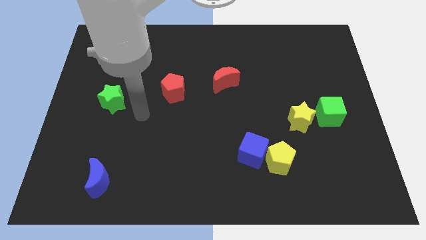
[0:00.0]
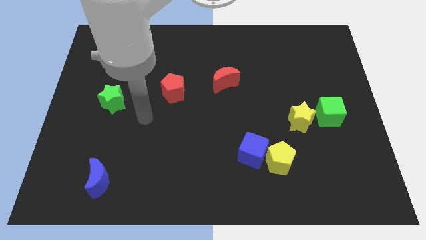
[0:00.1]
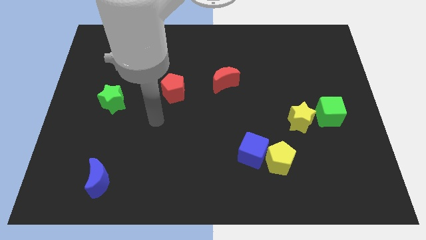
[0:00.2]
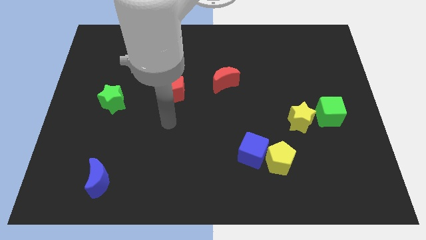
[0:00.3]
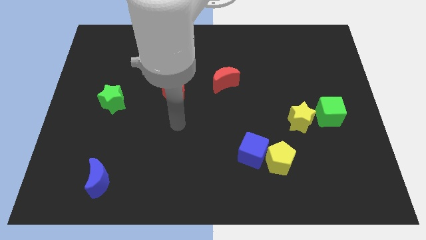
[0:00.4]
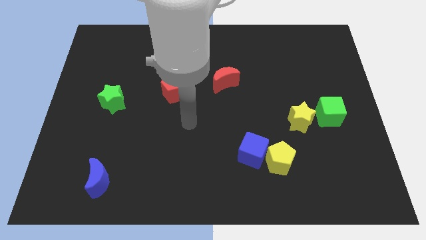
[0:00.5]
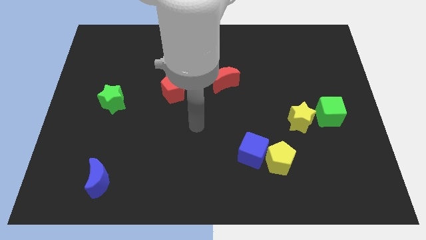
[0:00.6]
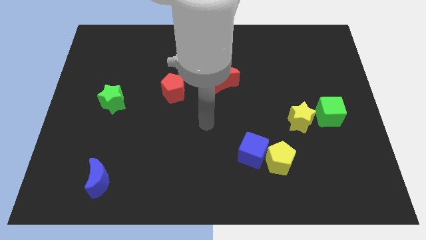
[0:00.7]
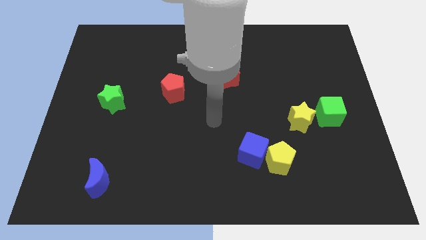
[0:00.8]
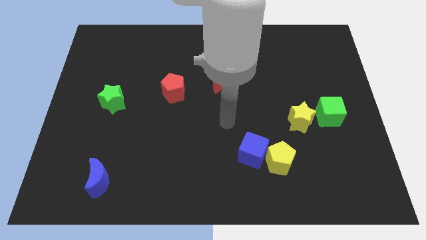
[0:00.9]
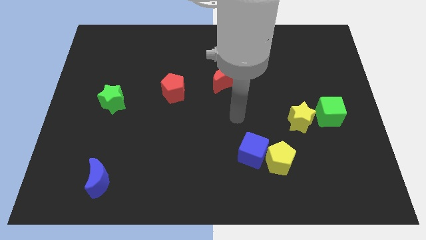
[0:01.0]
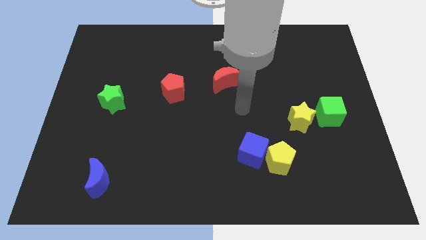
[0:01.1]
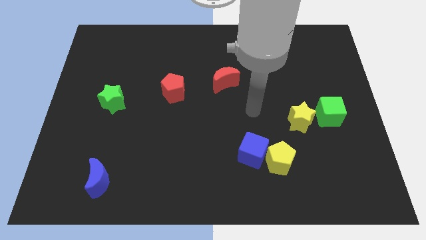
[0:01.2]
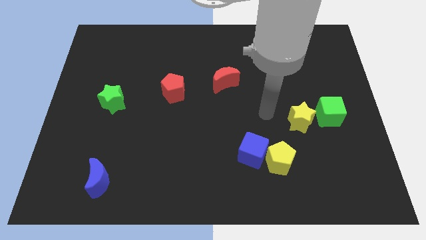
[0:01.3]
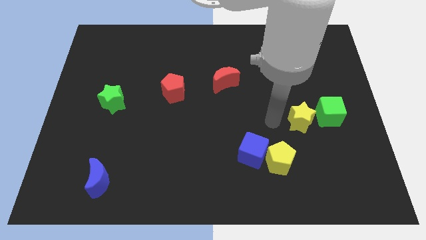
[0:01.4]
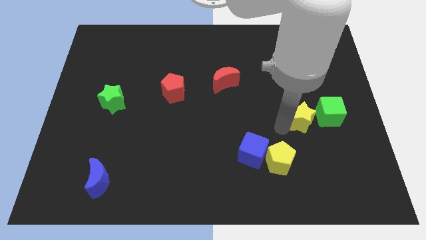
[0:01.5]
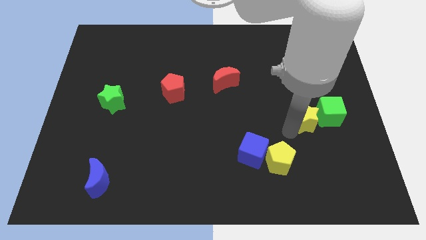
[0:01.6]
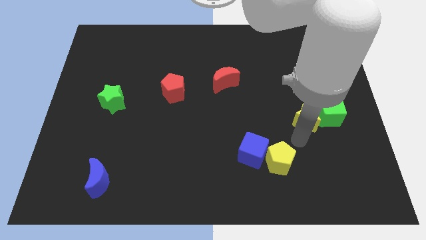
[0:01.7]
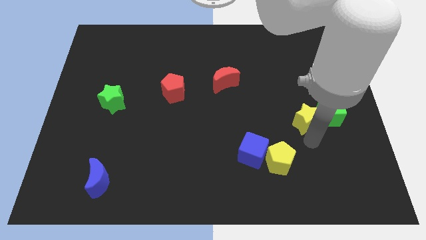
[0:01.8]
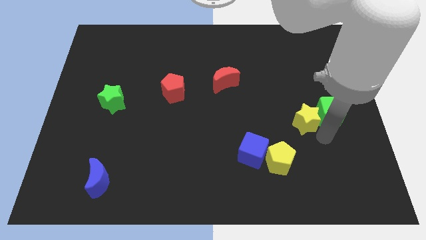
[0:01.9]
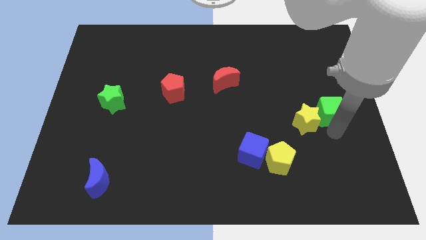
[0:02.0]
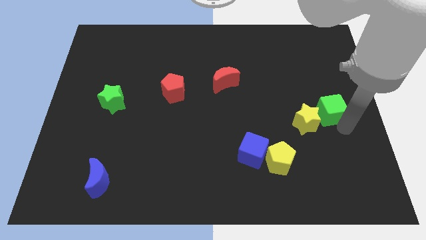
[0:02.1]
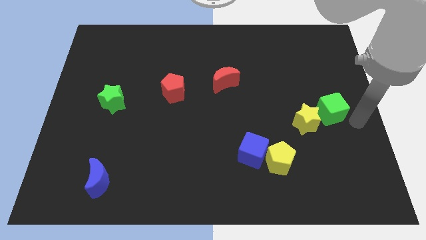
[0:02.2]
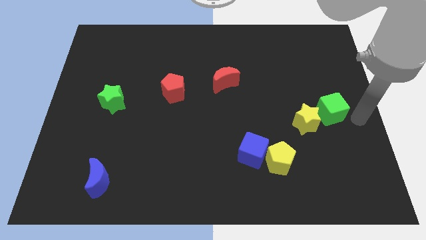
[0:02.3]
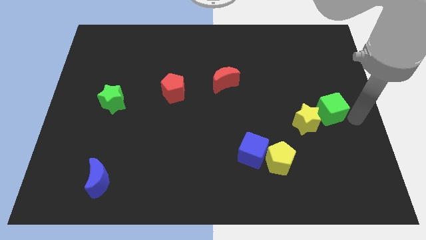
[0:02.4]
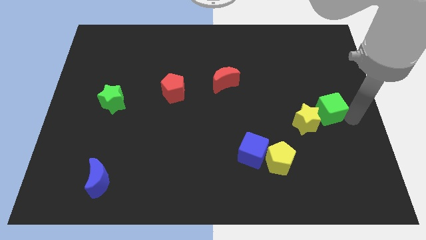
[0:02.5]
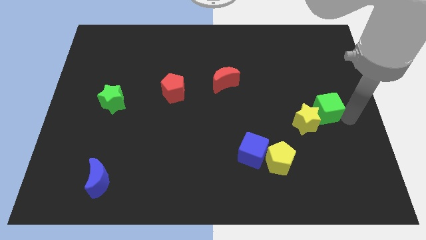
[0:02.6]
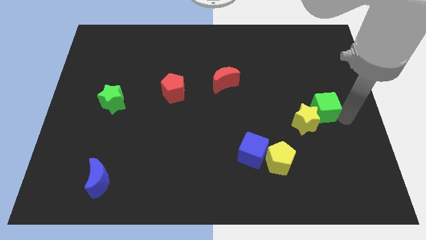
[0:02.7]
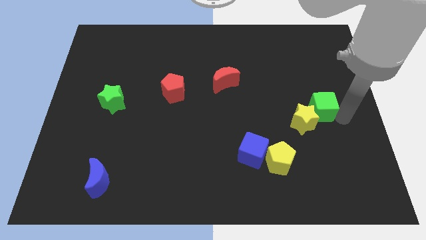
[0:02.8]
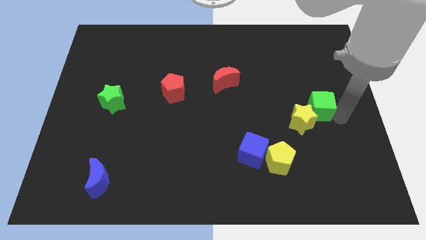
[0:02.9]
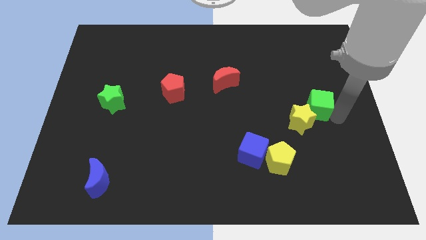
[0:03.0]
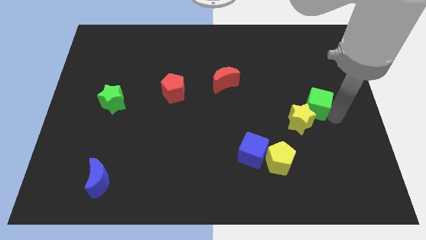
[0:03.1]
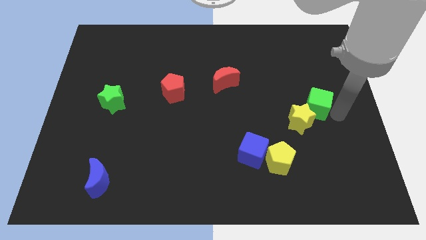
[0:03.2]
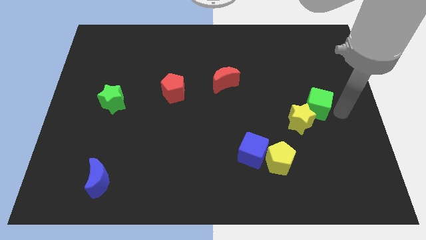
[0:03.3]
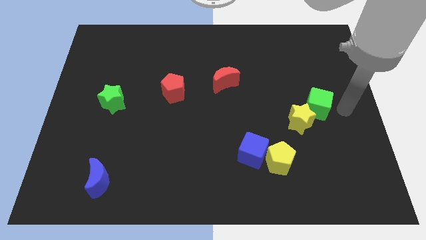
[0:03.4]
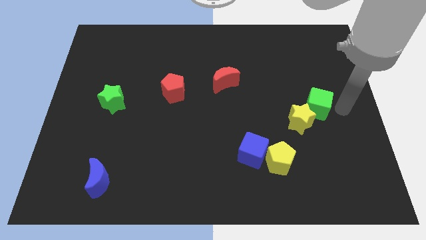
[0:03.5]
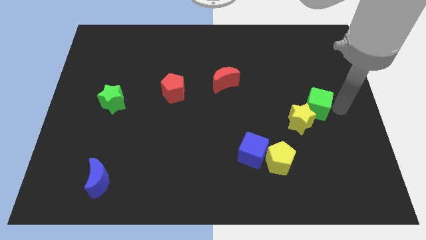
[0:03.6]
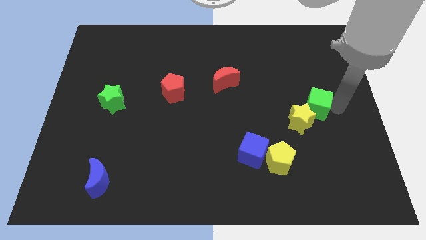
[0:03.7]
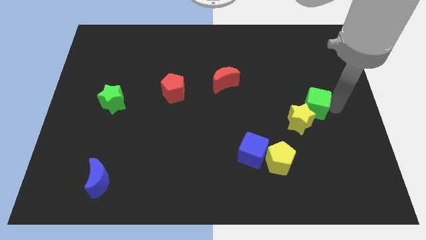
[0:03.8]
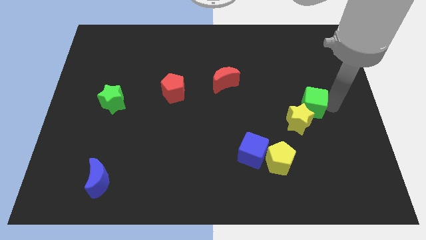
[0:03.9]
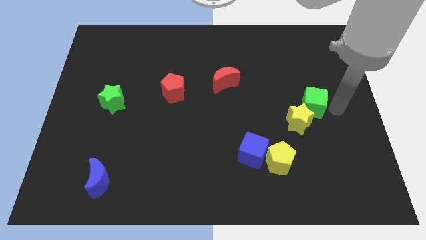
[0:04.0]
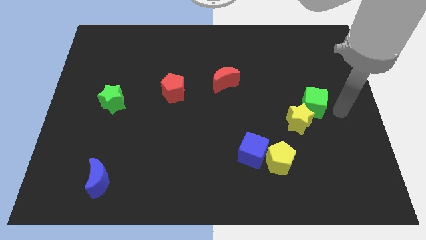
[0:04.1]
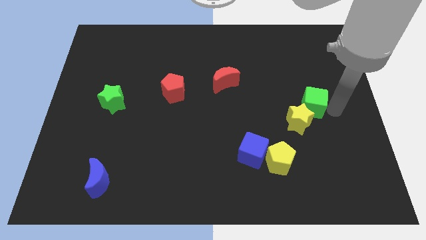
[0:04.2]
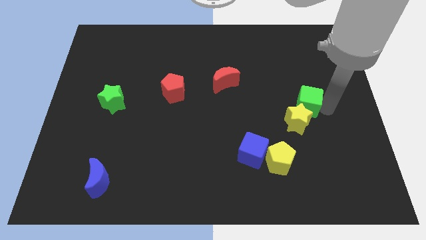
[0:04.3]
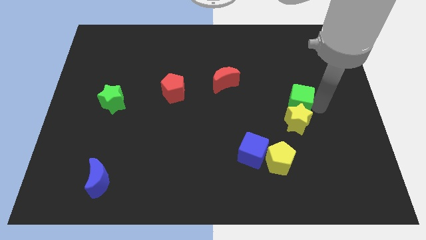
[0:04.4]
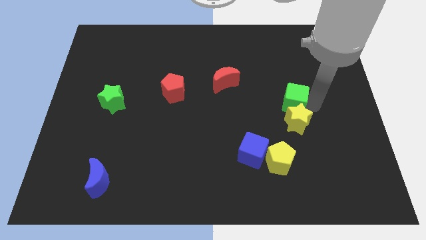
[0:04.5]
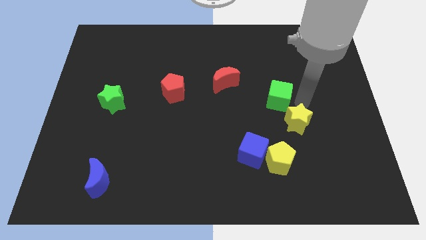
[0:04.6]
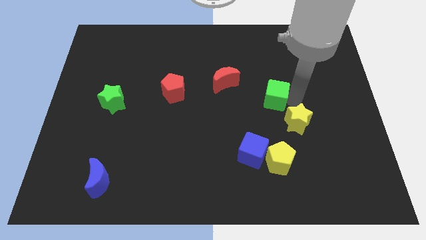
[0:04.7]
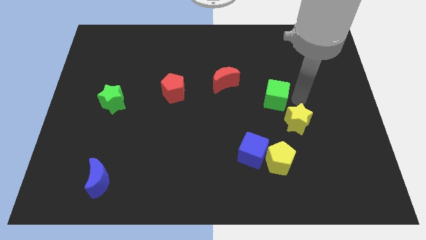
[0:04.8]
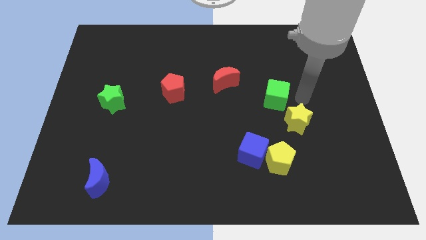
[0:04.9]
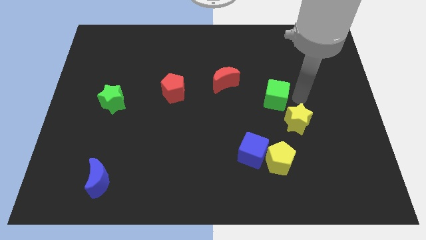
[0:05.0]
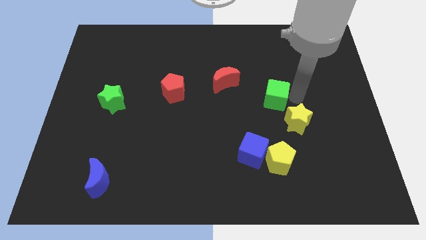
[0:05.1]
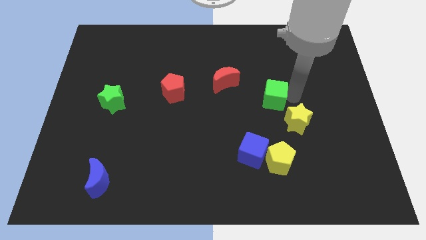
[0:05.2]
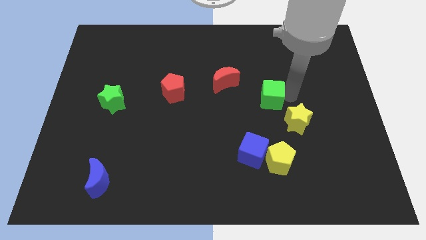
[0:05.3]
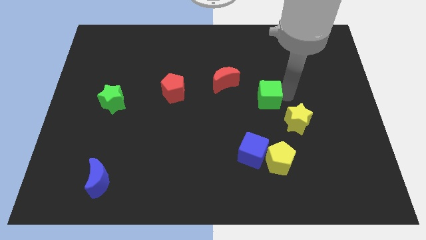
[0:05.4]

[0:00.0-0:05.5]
put the green cube diagonally down and to the right of the red moon

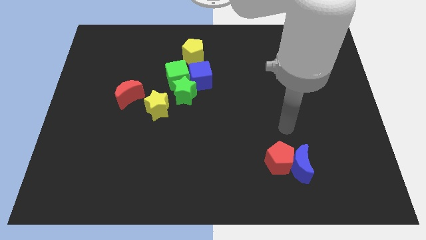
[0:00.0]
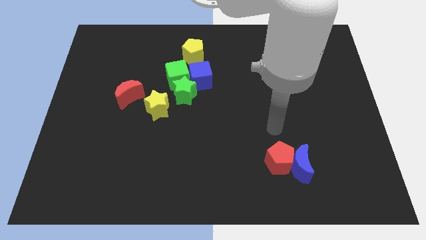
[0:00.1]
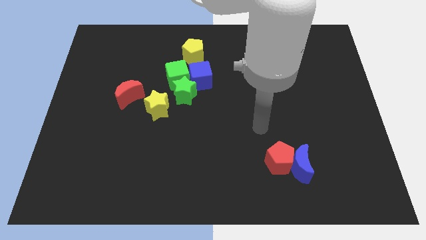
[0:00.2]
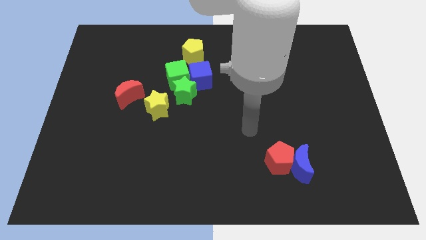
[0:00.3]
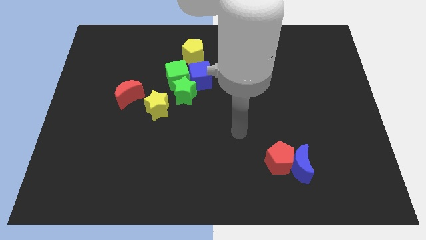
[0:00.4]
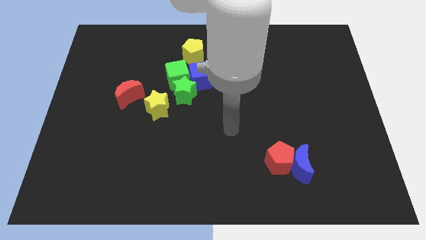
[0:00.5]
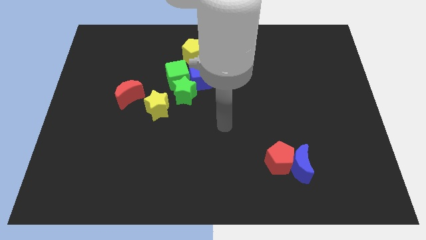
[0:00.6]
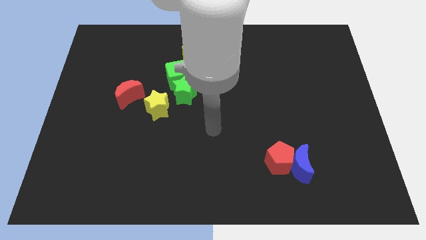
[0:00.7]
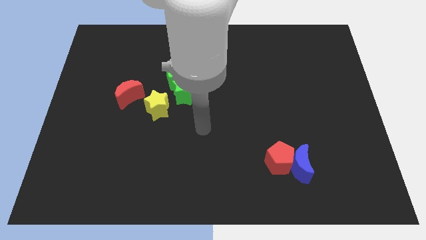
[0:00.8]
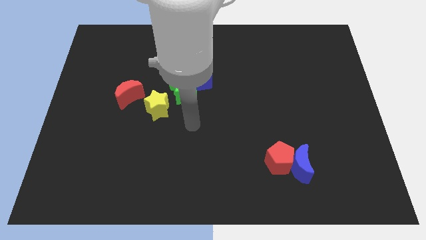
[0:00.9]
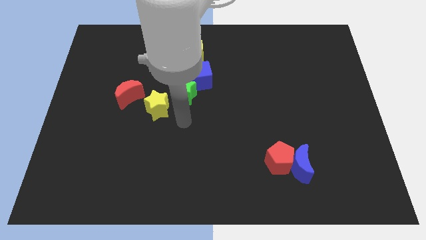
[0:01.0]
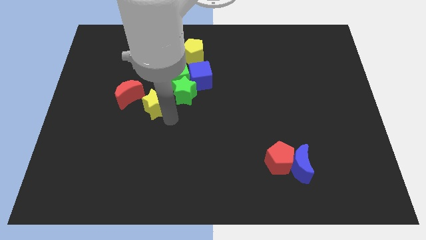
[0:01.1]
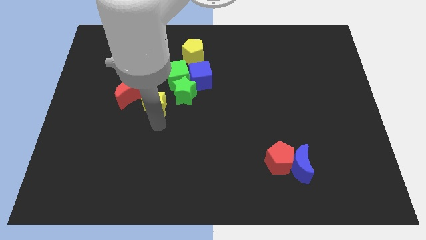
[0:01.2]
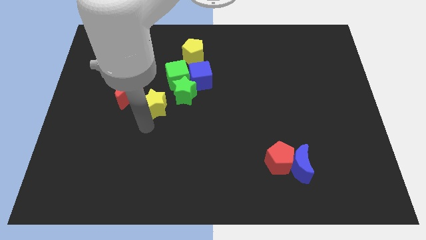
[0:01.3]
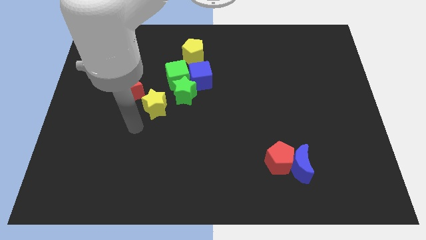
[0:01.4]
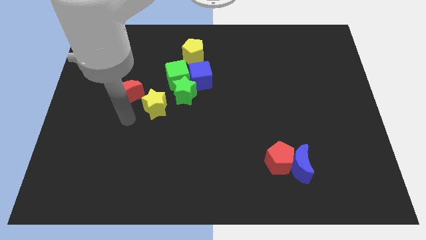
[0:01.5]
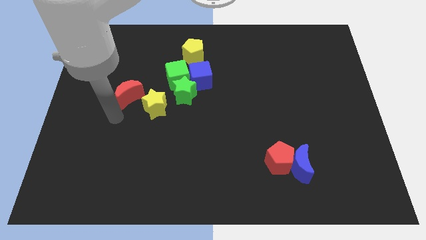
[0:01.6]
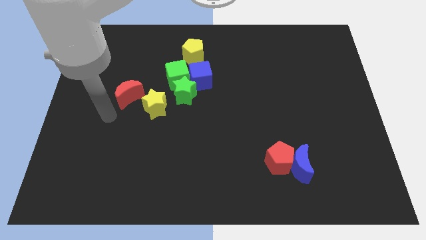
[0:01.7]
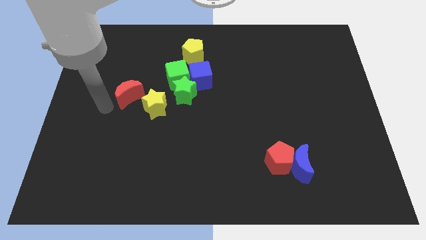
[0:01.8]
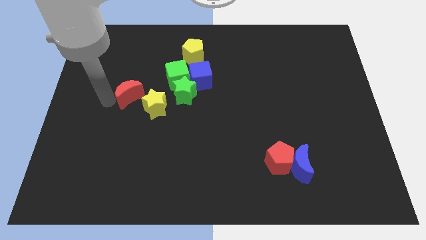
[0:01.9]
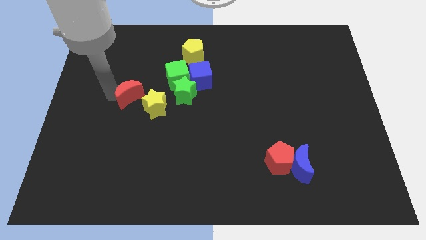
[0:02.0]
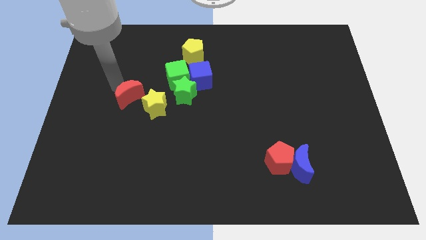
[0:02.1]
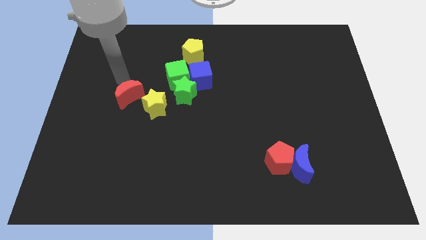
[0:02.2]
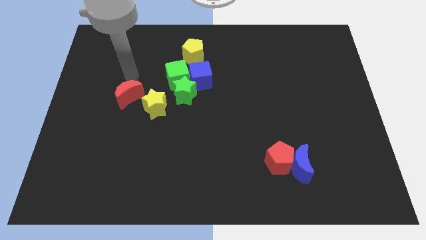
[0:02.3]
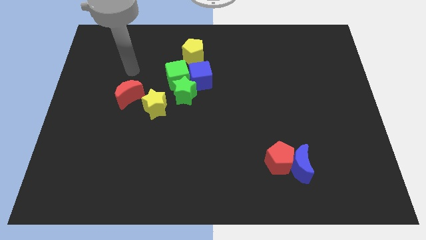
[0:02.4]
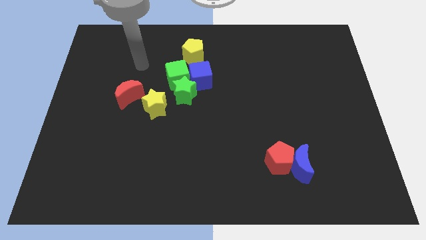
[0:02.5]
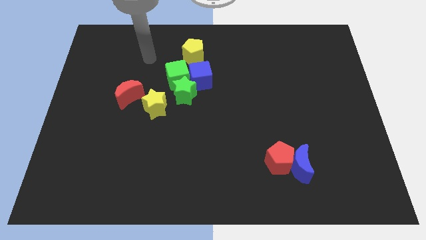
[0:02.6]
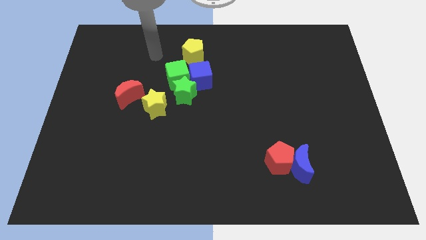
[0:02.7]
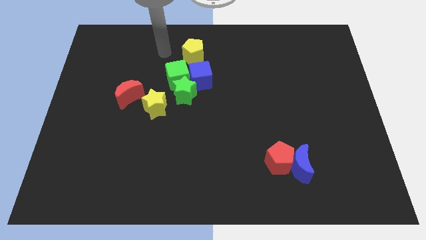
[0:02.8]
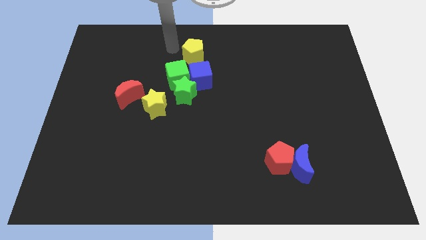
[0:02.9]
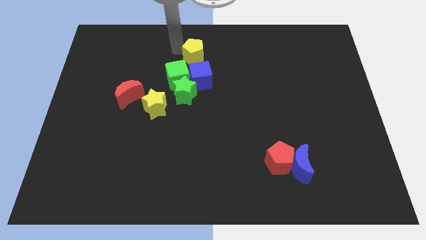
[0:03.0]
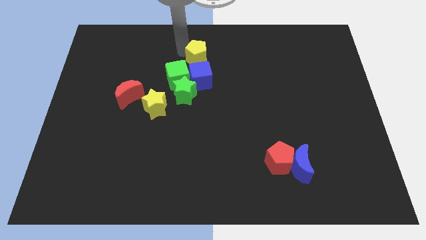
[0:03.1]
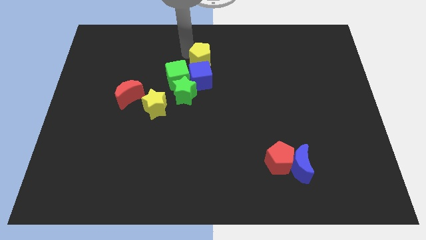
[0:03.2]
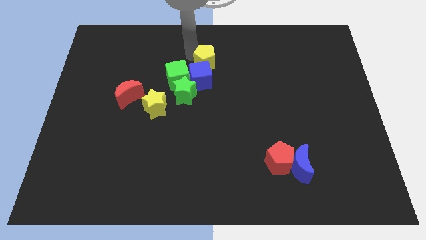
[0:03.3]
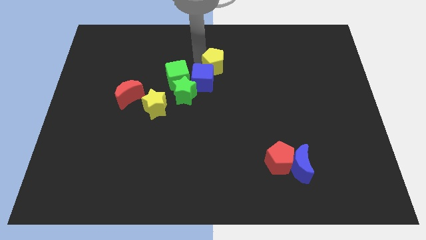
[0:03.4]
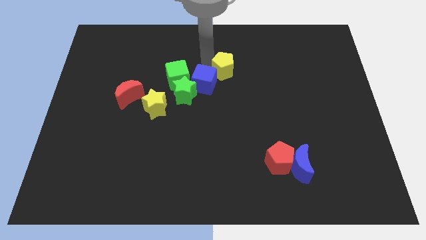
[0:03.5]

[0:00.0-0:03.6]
put the yellow pentagon to the right side of the blue cube
